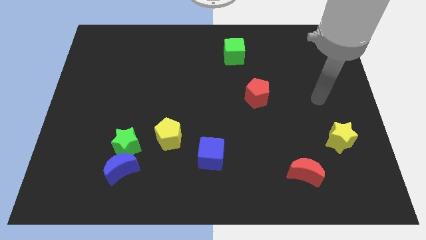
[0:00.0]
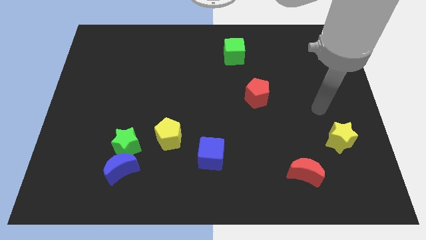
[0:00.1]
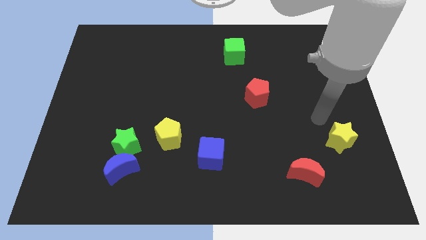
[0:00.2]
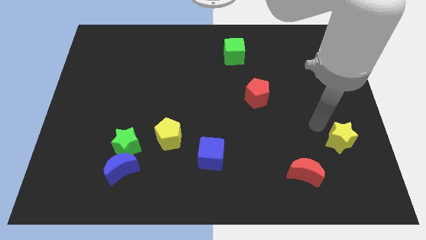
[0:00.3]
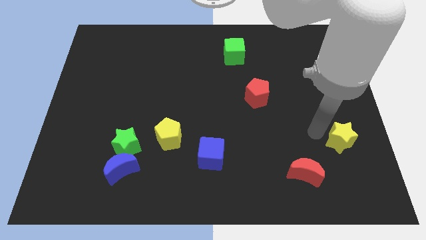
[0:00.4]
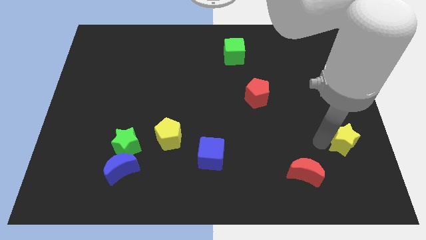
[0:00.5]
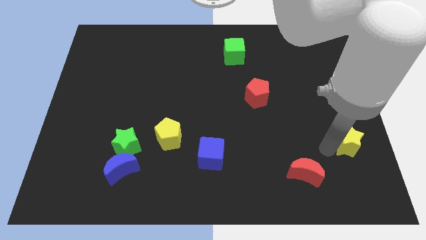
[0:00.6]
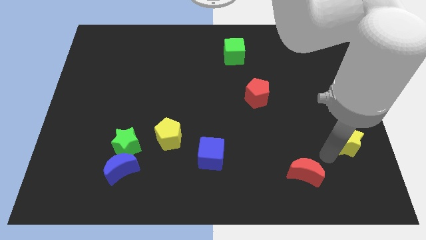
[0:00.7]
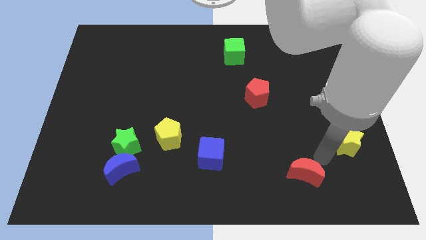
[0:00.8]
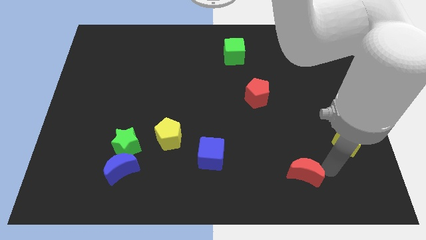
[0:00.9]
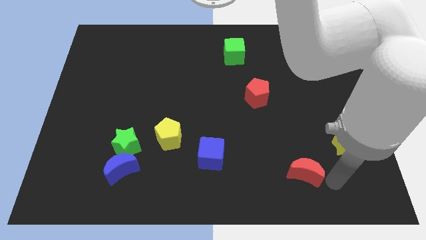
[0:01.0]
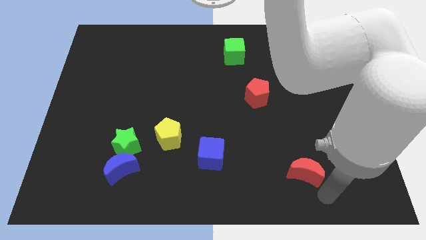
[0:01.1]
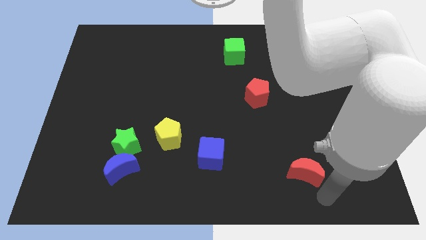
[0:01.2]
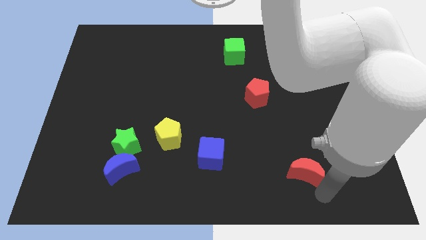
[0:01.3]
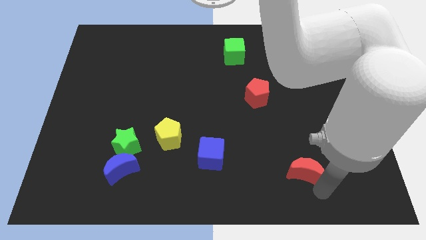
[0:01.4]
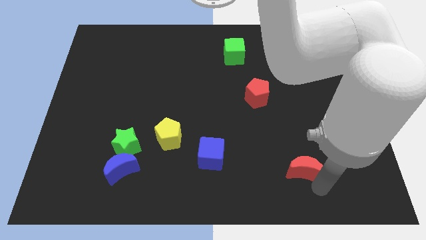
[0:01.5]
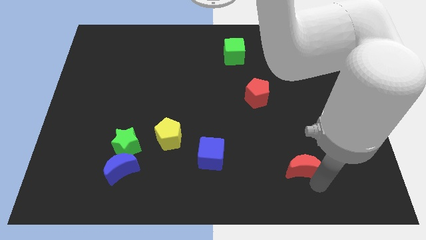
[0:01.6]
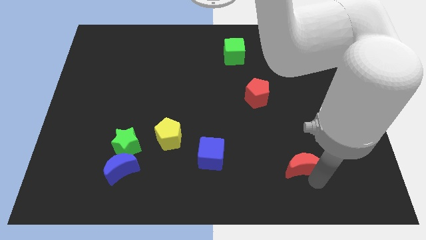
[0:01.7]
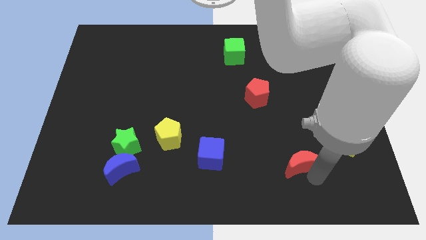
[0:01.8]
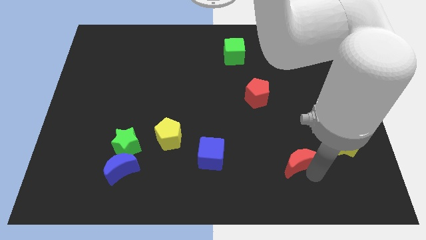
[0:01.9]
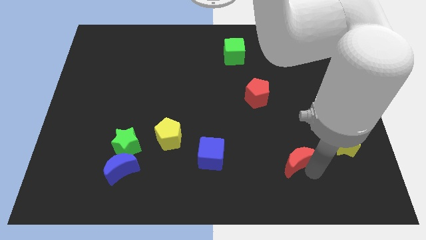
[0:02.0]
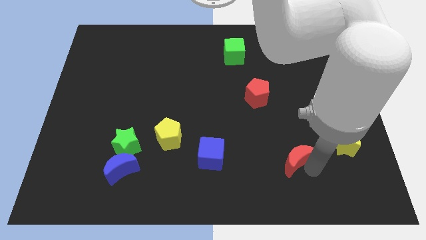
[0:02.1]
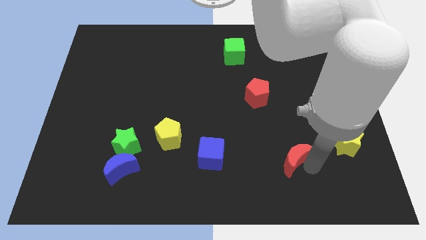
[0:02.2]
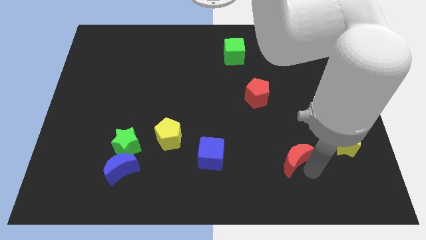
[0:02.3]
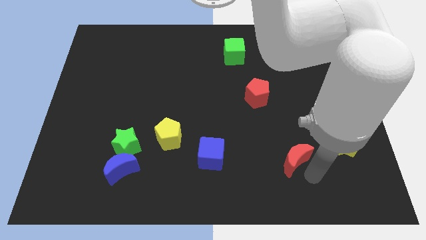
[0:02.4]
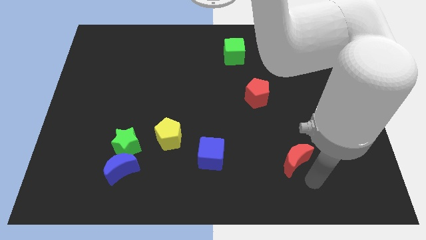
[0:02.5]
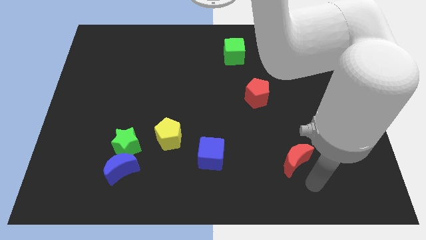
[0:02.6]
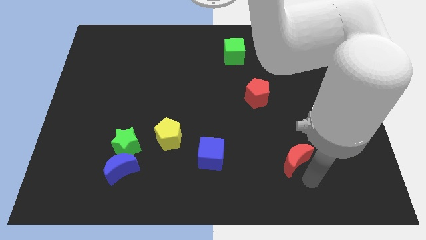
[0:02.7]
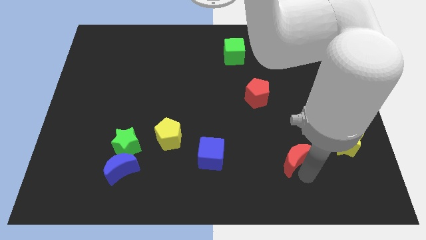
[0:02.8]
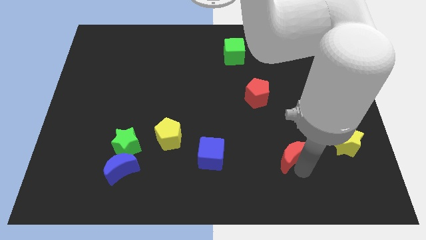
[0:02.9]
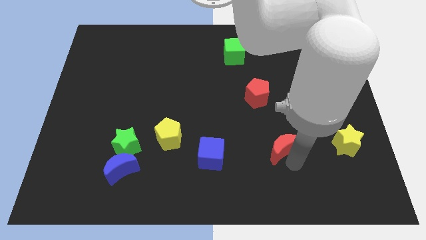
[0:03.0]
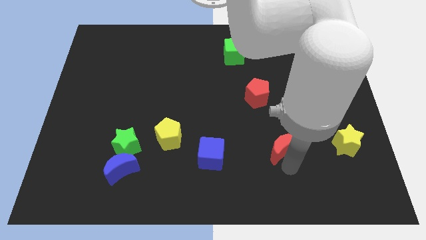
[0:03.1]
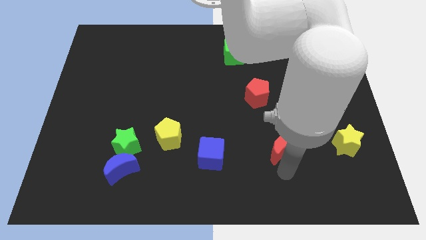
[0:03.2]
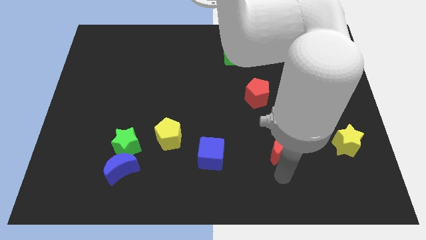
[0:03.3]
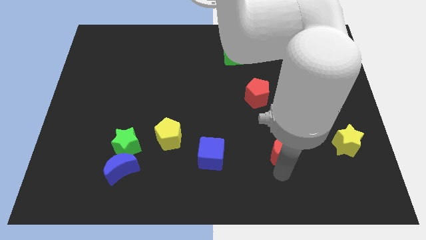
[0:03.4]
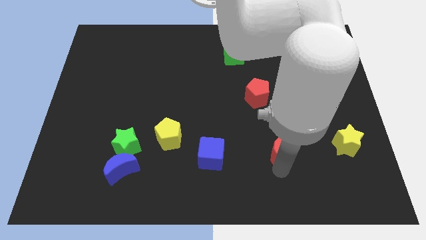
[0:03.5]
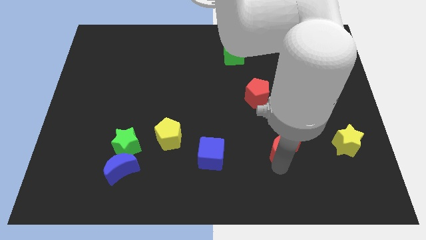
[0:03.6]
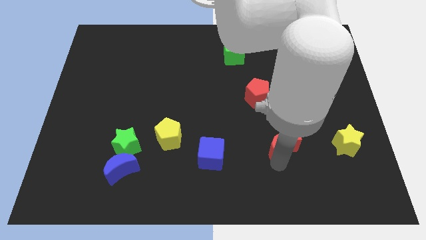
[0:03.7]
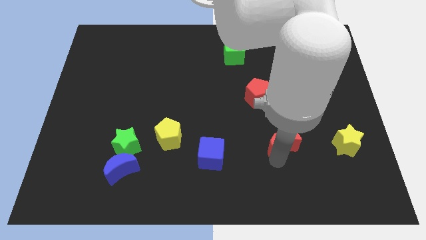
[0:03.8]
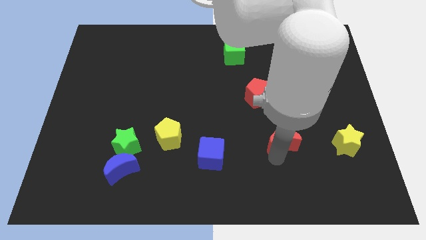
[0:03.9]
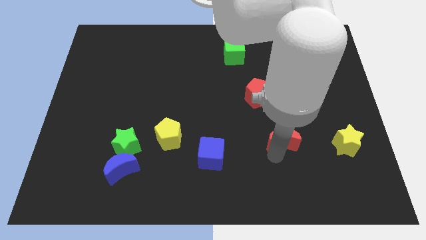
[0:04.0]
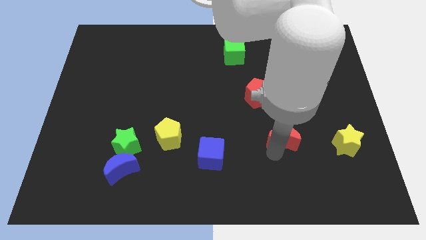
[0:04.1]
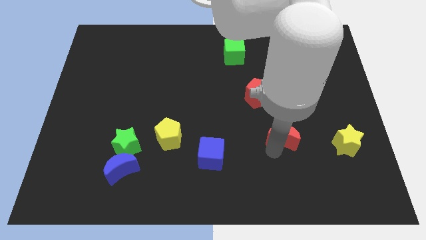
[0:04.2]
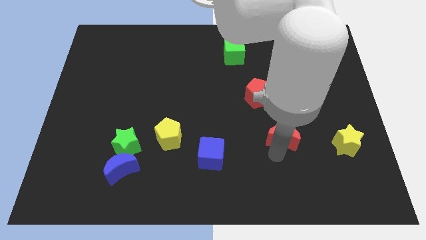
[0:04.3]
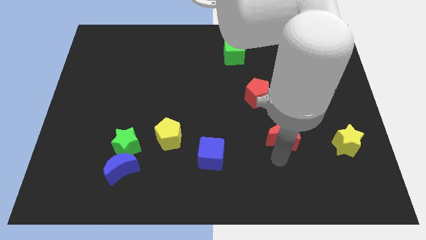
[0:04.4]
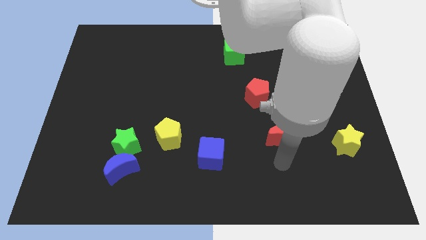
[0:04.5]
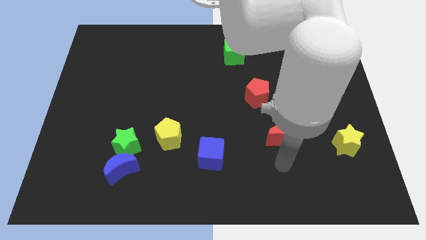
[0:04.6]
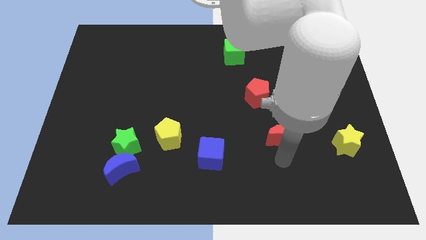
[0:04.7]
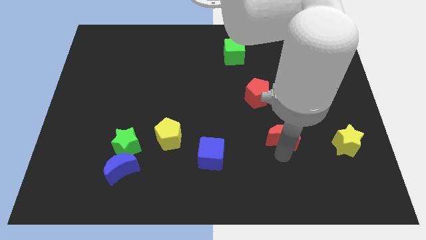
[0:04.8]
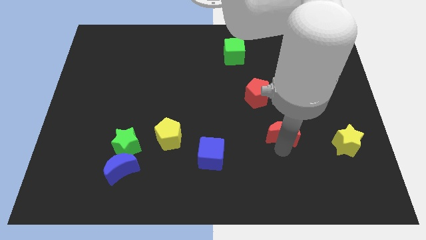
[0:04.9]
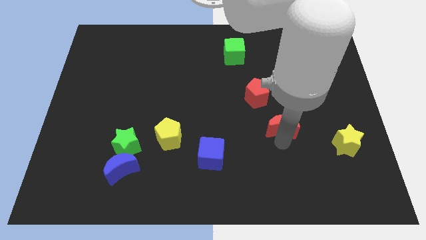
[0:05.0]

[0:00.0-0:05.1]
move the red moon to the bottom right side of the red pentagon

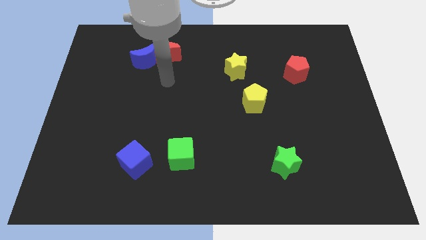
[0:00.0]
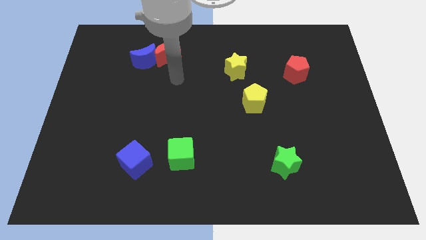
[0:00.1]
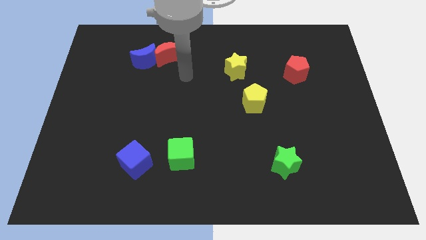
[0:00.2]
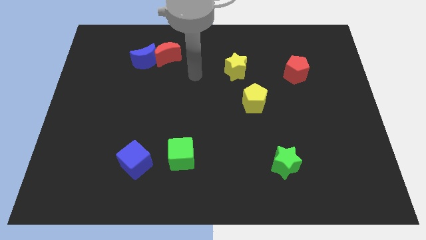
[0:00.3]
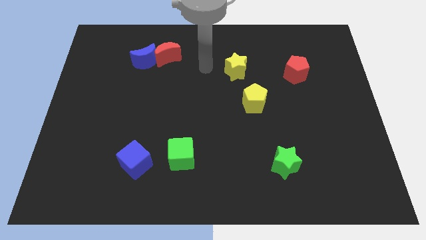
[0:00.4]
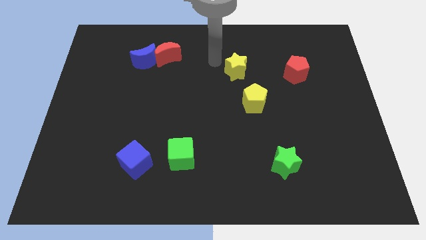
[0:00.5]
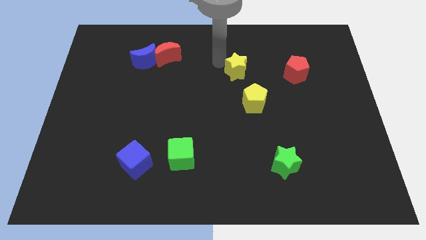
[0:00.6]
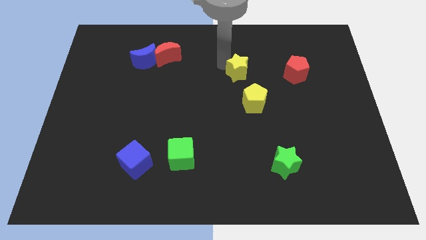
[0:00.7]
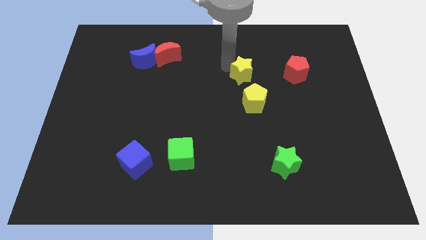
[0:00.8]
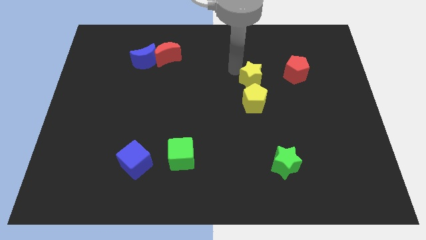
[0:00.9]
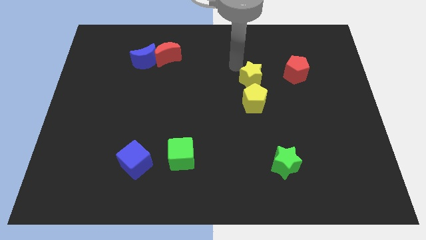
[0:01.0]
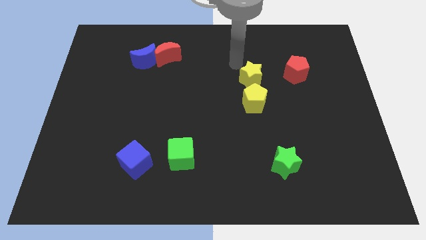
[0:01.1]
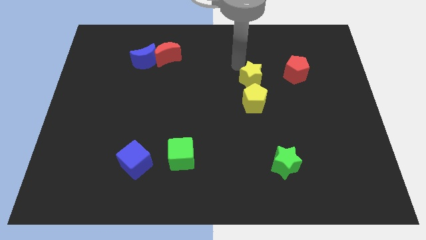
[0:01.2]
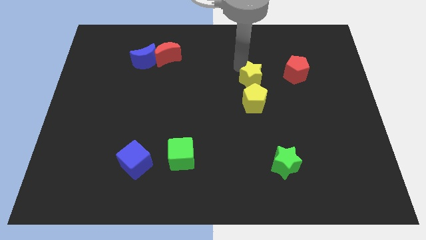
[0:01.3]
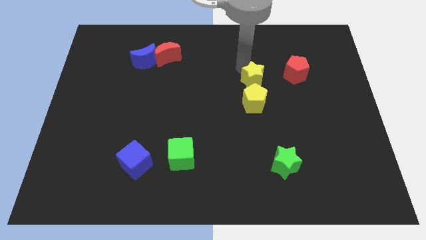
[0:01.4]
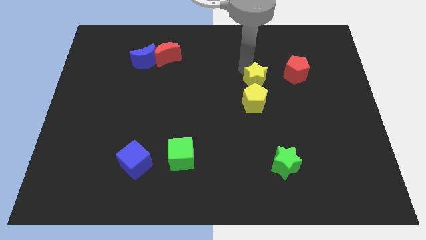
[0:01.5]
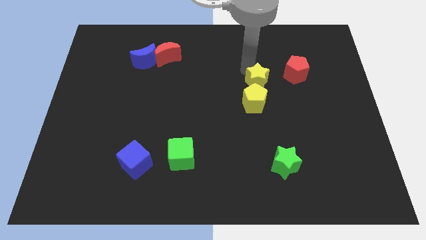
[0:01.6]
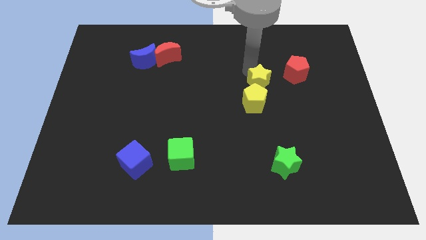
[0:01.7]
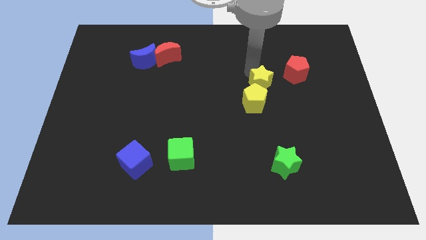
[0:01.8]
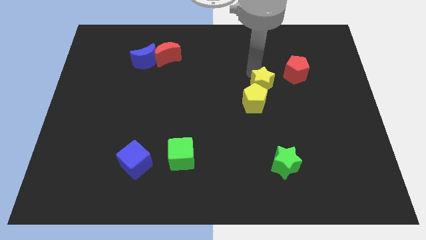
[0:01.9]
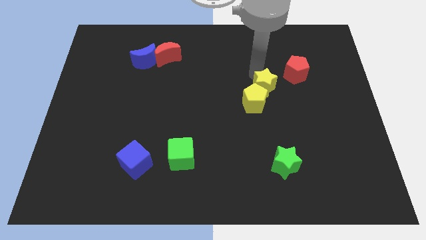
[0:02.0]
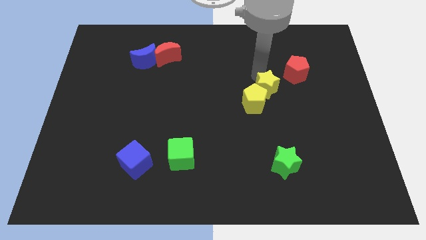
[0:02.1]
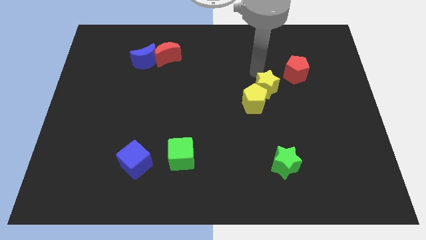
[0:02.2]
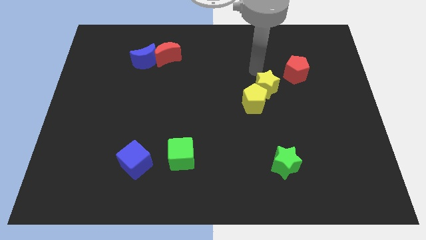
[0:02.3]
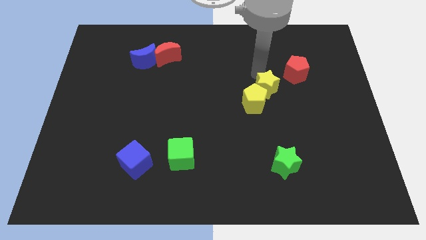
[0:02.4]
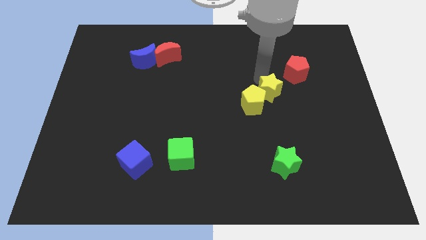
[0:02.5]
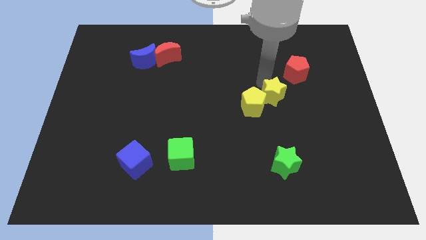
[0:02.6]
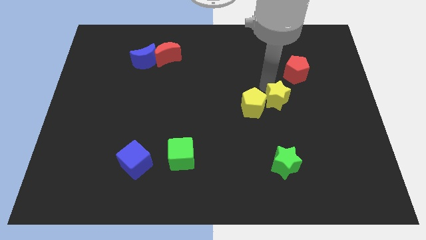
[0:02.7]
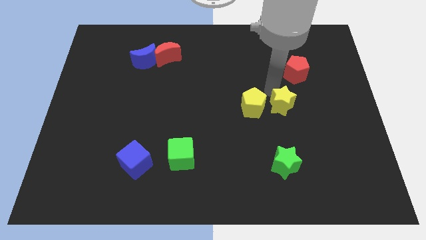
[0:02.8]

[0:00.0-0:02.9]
move the yellow star to the bottom right side of the yellow pentagon
